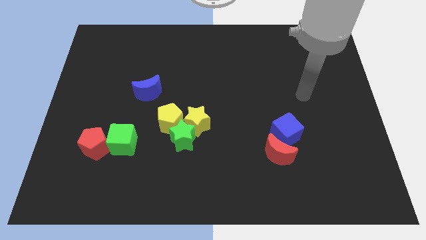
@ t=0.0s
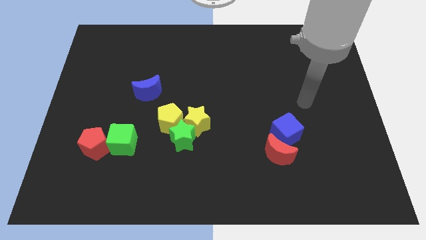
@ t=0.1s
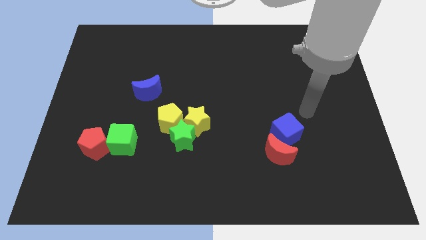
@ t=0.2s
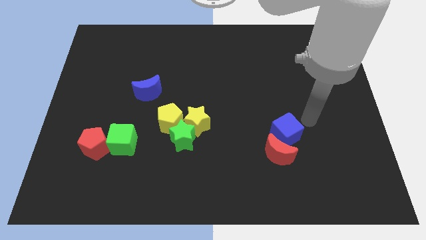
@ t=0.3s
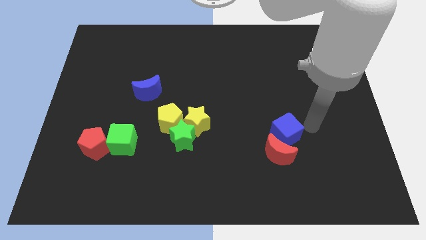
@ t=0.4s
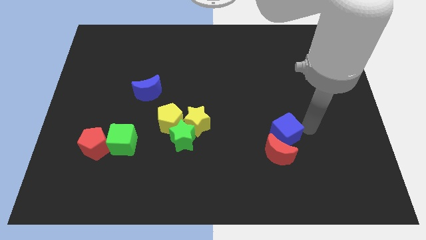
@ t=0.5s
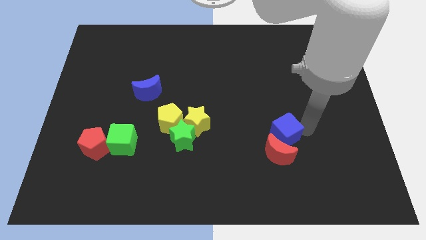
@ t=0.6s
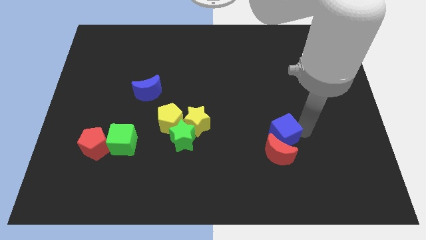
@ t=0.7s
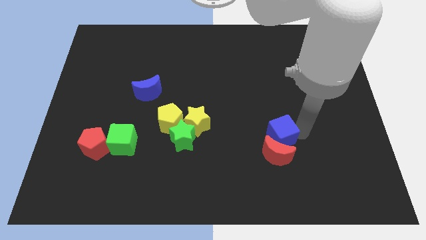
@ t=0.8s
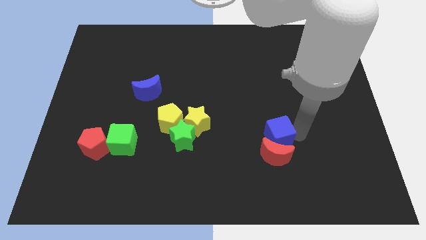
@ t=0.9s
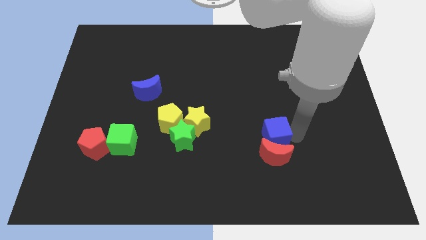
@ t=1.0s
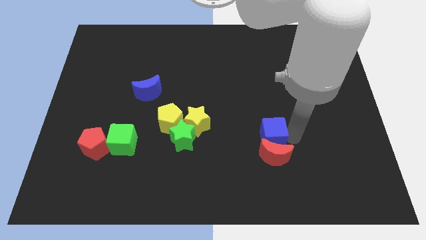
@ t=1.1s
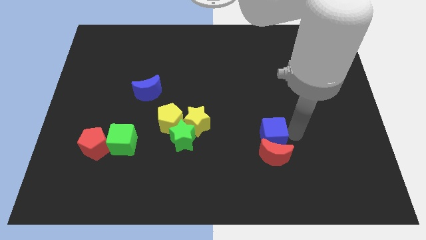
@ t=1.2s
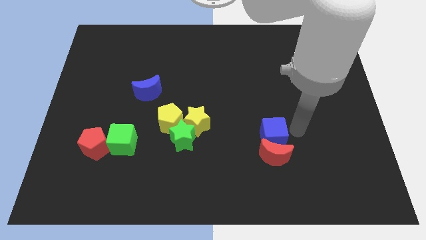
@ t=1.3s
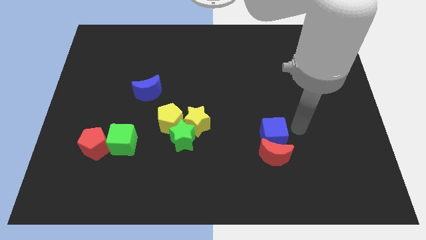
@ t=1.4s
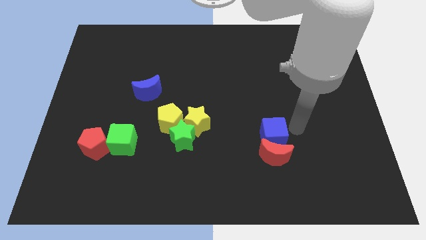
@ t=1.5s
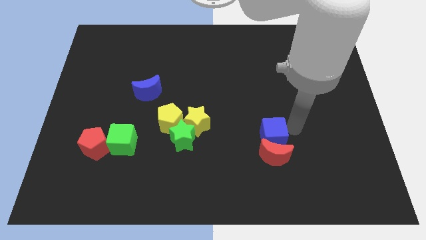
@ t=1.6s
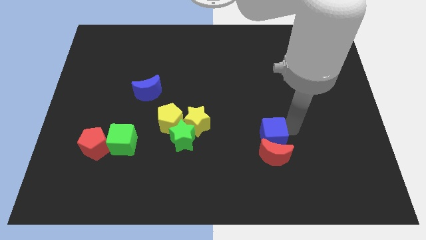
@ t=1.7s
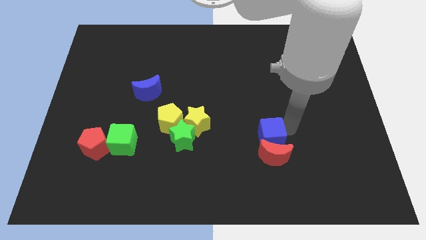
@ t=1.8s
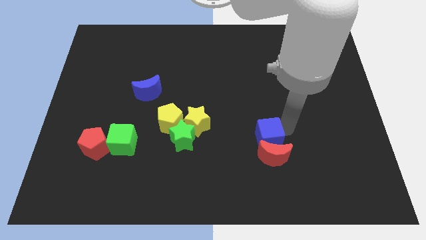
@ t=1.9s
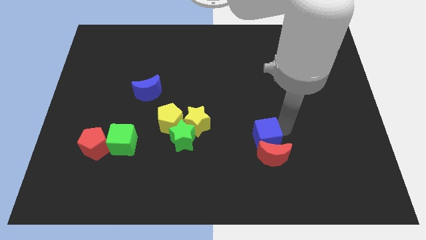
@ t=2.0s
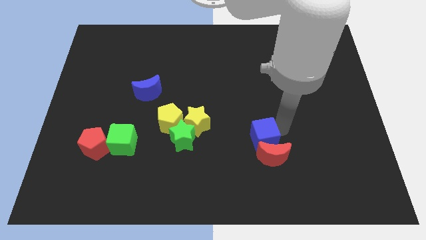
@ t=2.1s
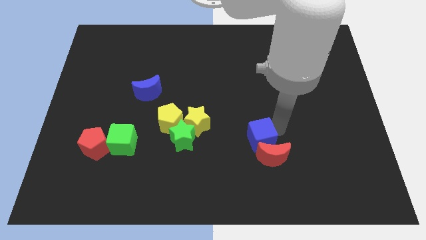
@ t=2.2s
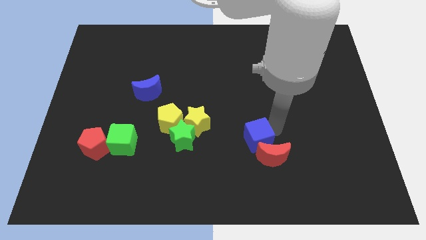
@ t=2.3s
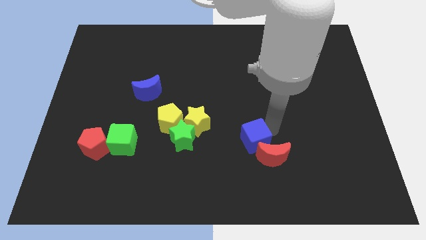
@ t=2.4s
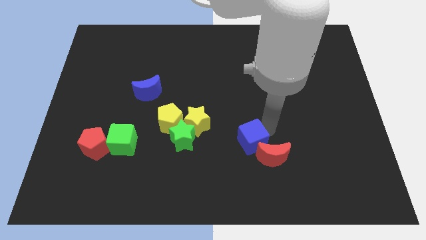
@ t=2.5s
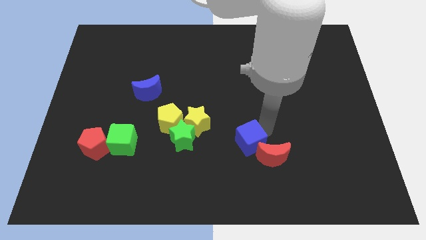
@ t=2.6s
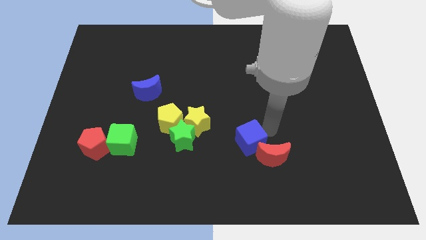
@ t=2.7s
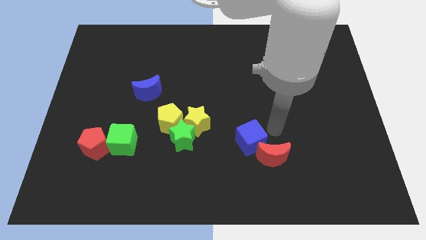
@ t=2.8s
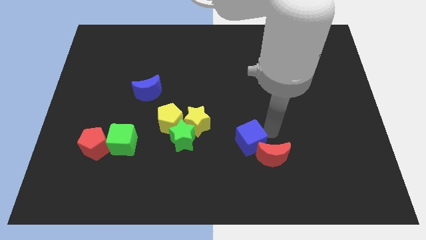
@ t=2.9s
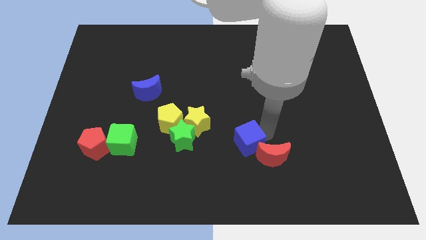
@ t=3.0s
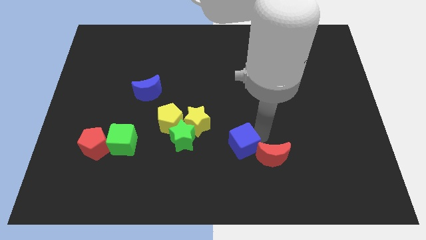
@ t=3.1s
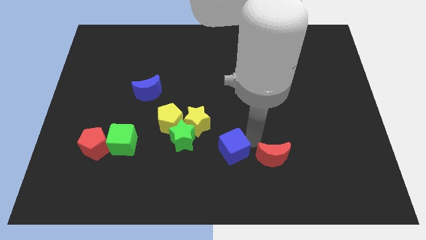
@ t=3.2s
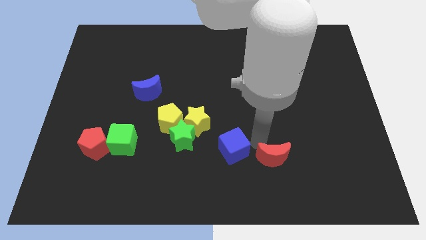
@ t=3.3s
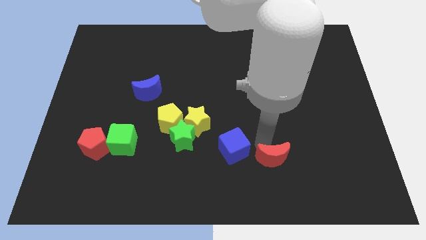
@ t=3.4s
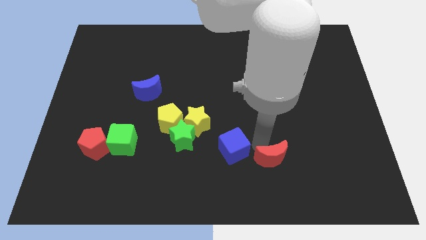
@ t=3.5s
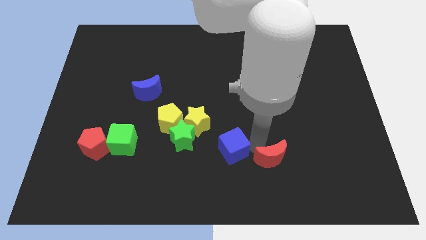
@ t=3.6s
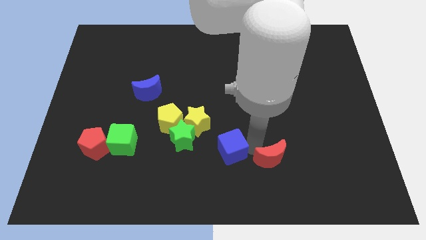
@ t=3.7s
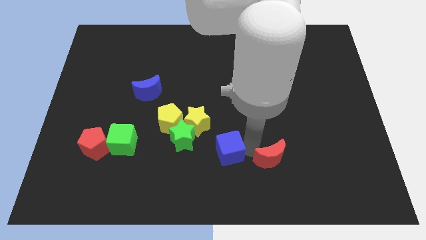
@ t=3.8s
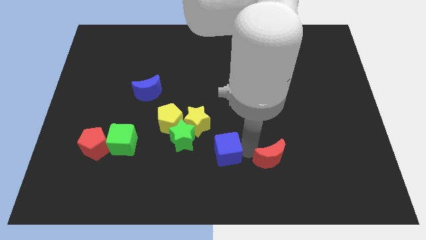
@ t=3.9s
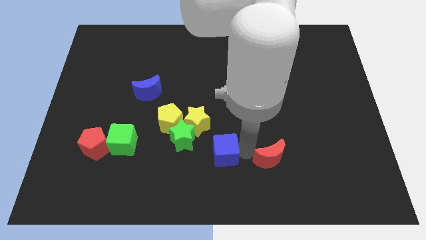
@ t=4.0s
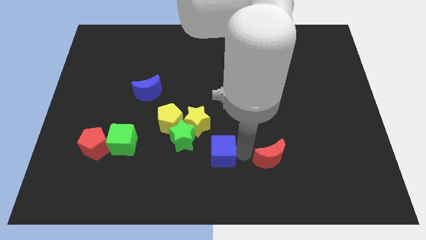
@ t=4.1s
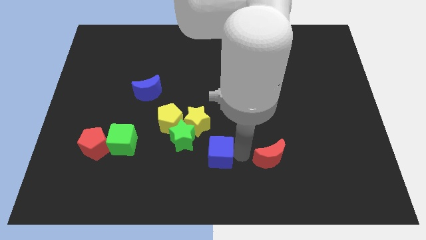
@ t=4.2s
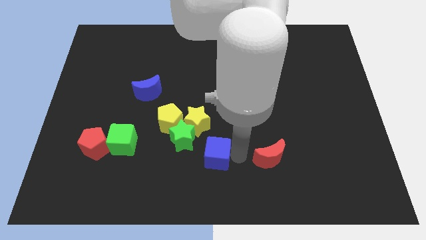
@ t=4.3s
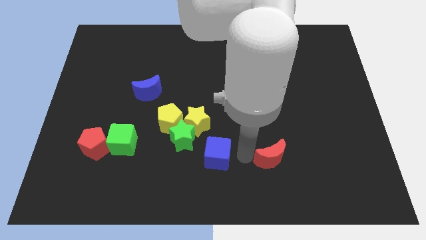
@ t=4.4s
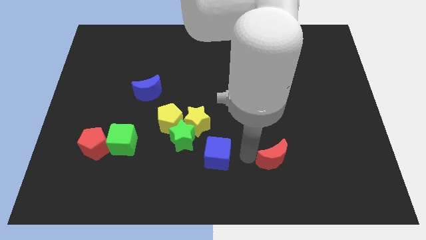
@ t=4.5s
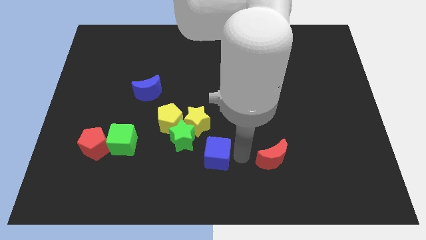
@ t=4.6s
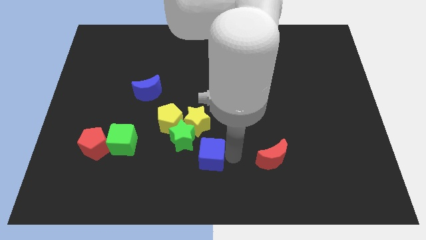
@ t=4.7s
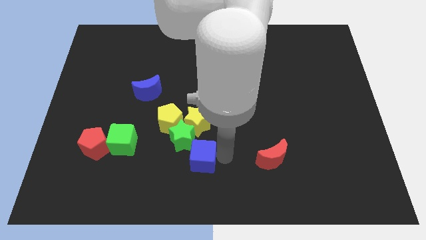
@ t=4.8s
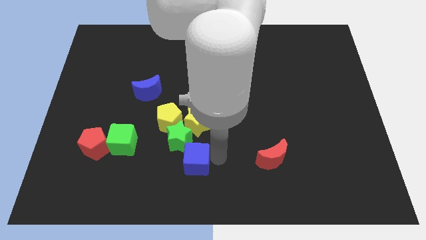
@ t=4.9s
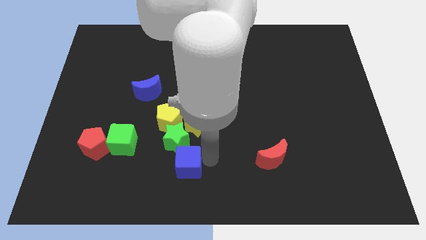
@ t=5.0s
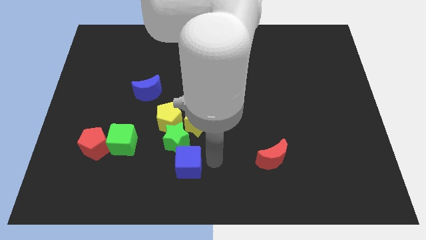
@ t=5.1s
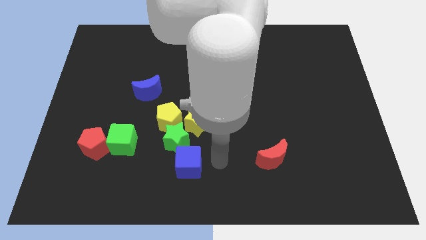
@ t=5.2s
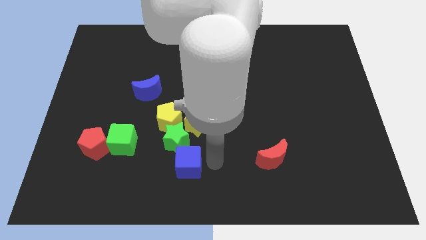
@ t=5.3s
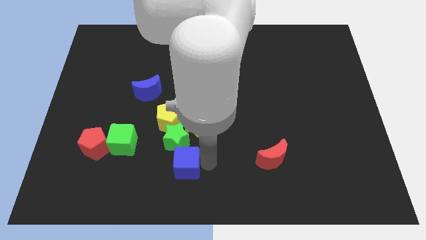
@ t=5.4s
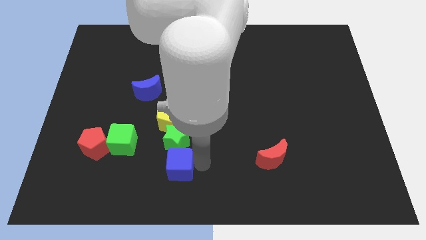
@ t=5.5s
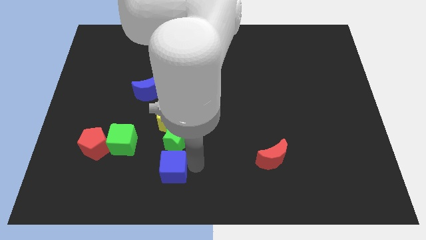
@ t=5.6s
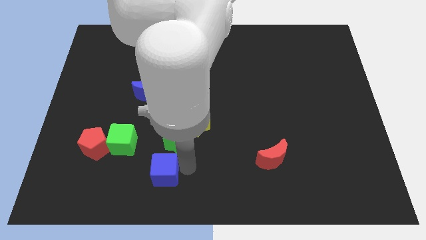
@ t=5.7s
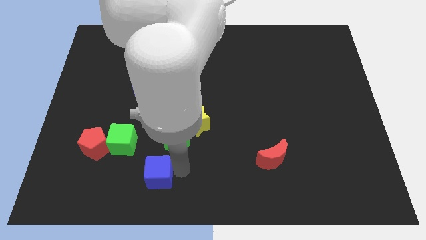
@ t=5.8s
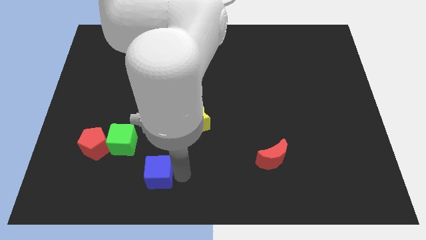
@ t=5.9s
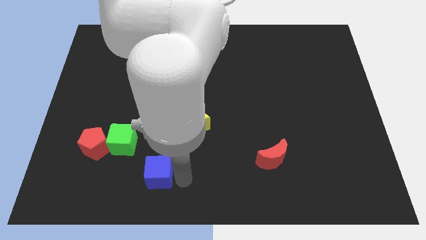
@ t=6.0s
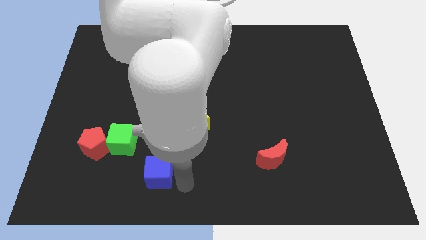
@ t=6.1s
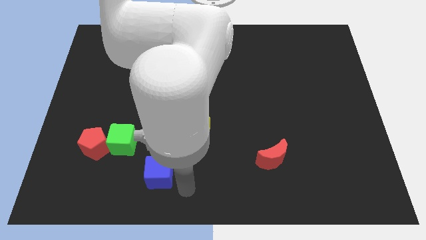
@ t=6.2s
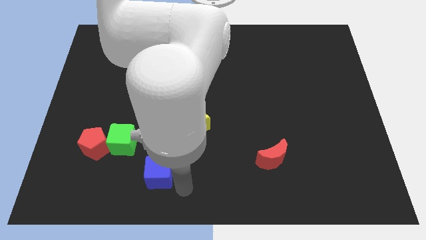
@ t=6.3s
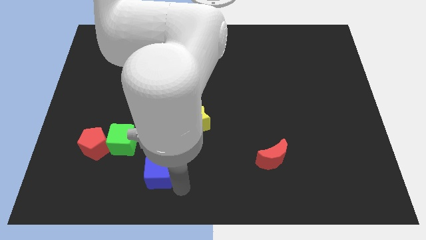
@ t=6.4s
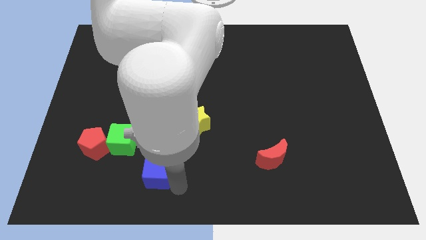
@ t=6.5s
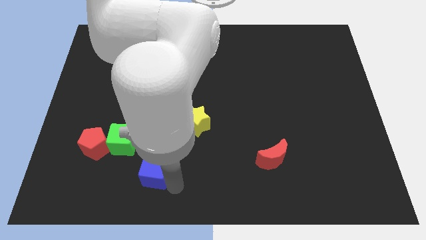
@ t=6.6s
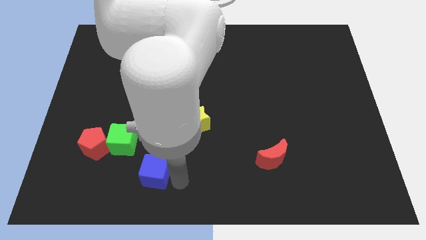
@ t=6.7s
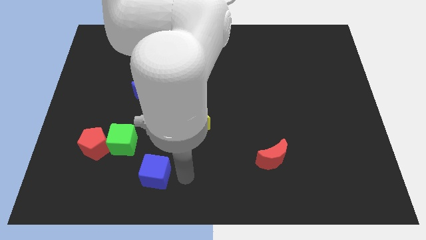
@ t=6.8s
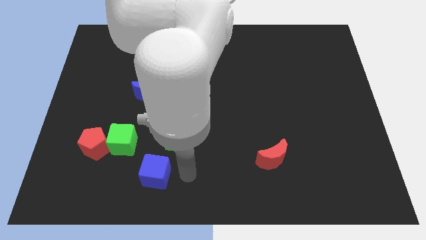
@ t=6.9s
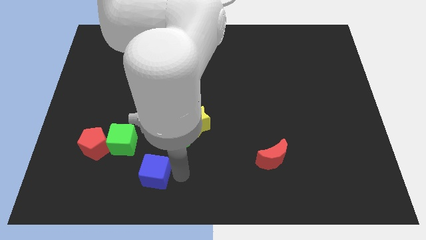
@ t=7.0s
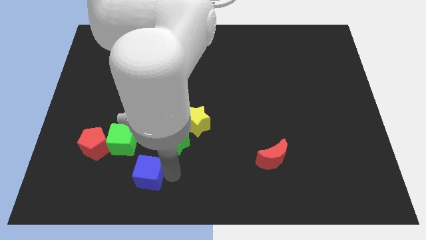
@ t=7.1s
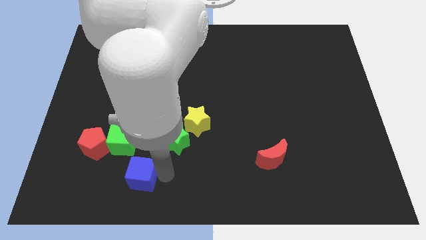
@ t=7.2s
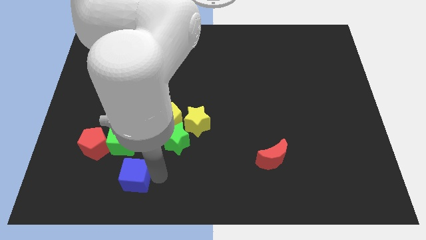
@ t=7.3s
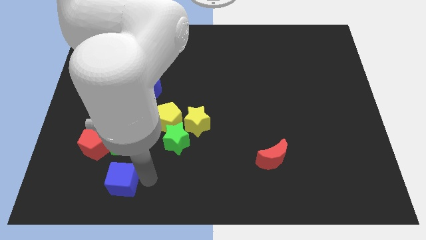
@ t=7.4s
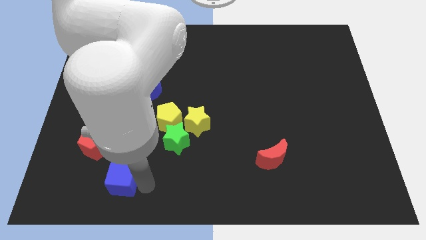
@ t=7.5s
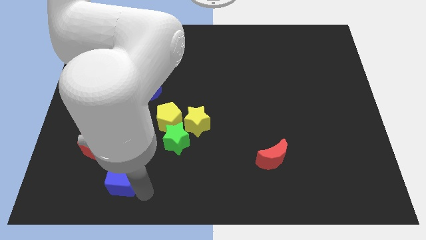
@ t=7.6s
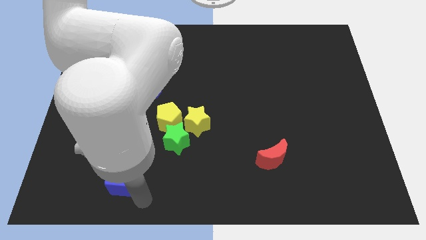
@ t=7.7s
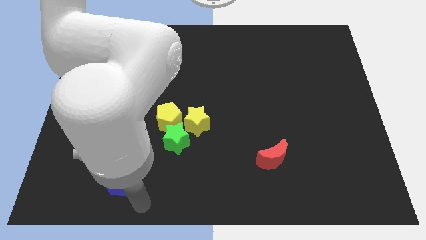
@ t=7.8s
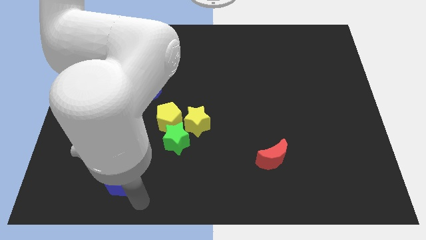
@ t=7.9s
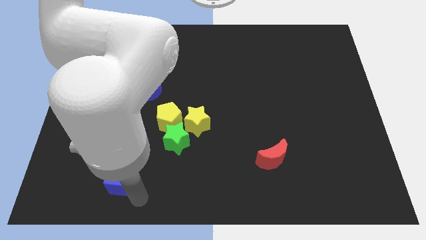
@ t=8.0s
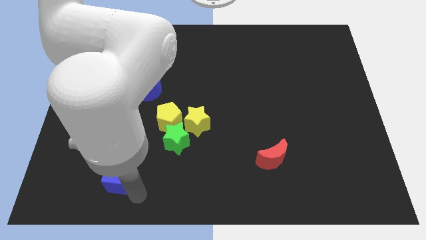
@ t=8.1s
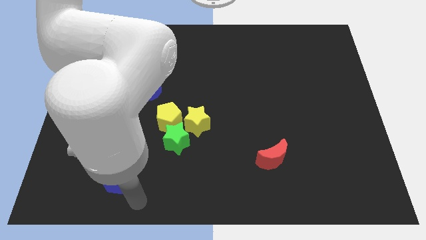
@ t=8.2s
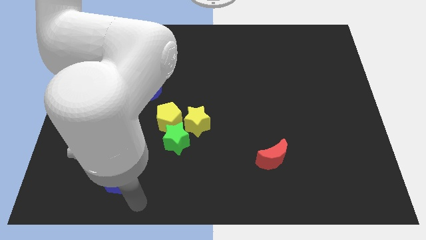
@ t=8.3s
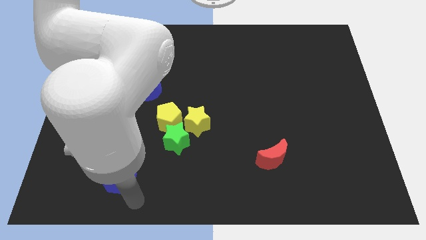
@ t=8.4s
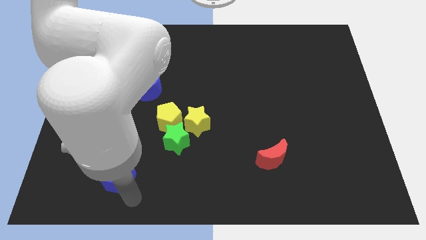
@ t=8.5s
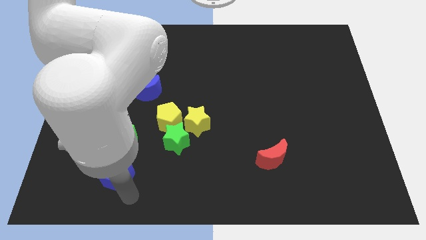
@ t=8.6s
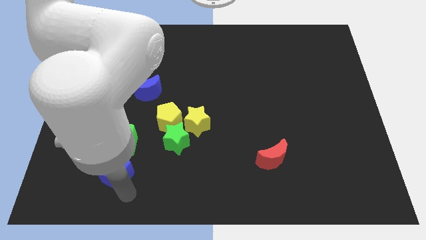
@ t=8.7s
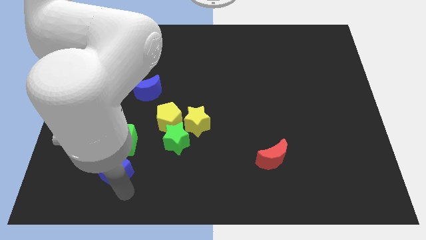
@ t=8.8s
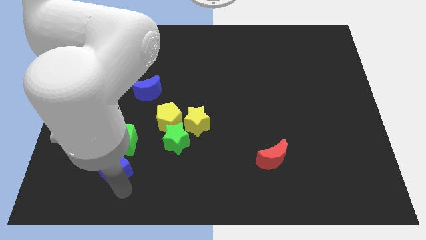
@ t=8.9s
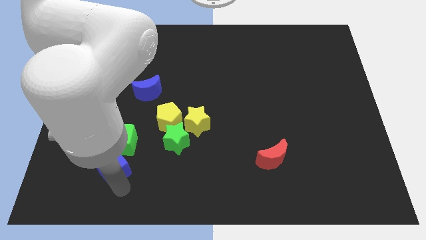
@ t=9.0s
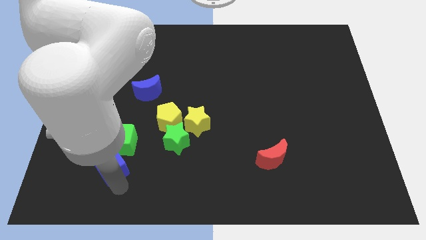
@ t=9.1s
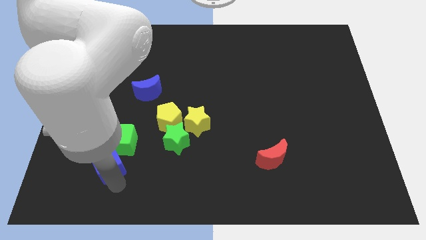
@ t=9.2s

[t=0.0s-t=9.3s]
slide the blue cube to the red pentagon
